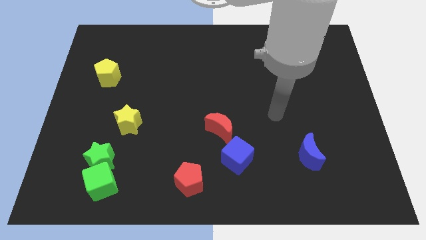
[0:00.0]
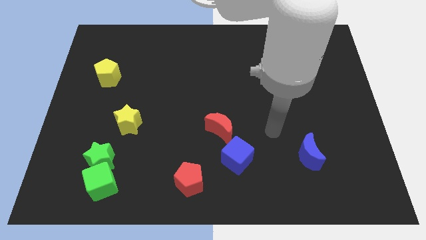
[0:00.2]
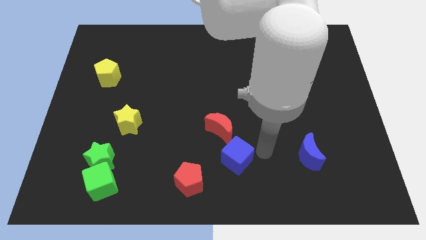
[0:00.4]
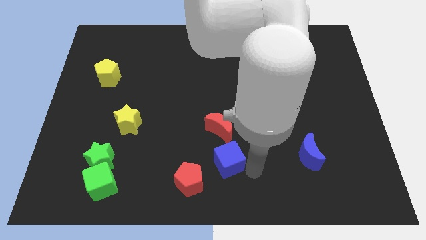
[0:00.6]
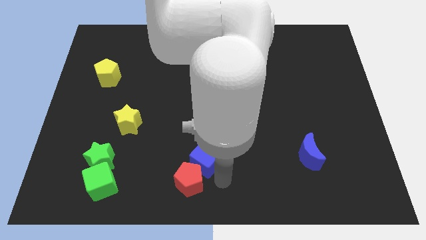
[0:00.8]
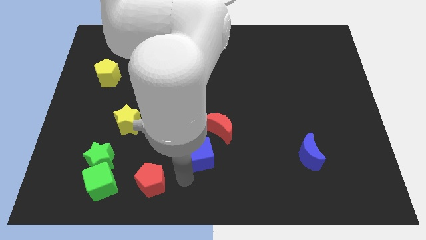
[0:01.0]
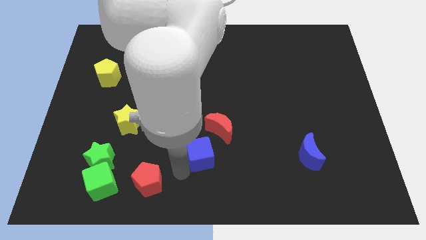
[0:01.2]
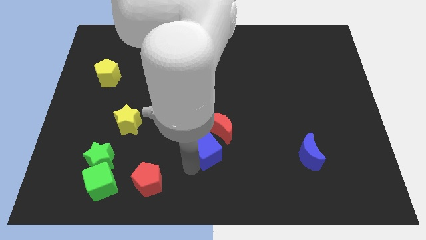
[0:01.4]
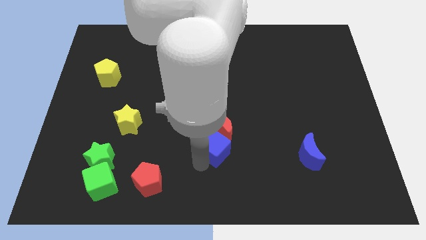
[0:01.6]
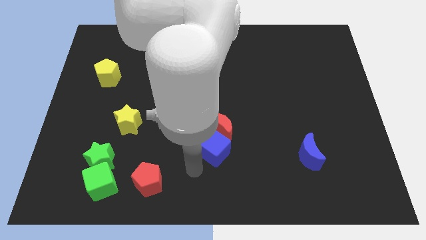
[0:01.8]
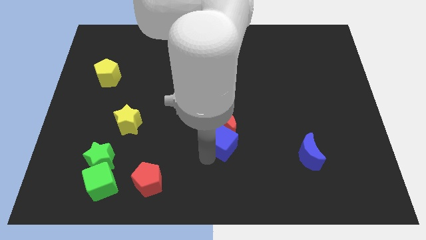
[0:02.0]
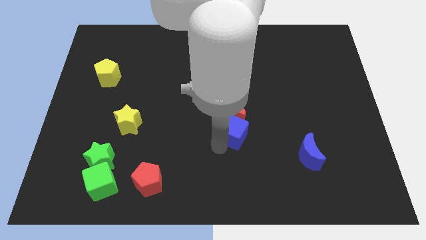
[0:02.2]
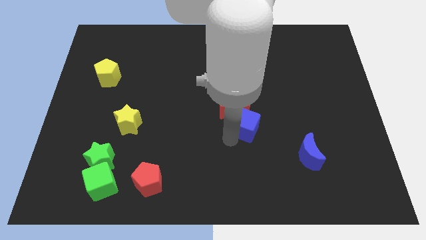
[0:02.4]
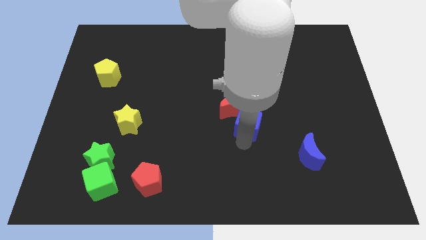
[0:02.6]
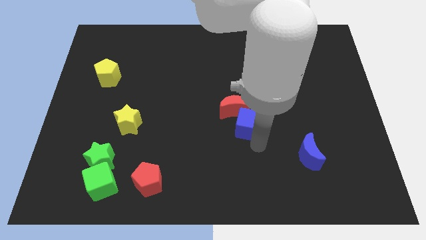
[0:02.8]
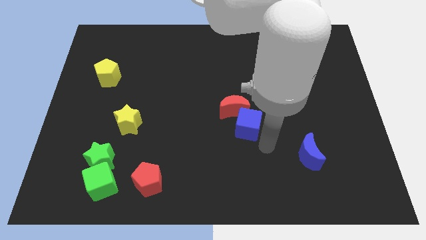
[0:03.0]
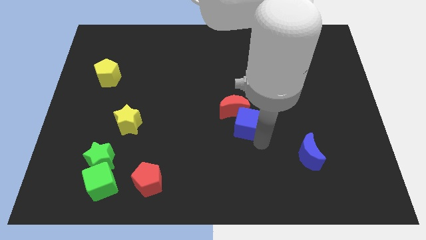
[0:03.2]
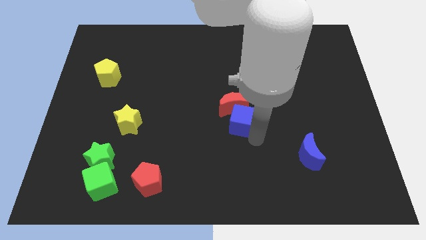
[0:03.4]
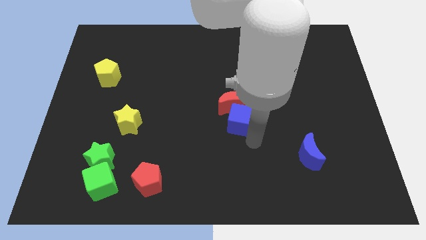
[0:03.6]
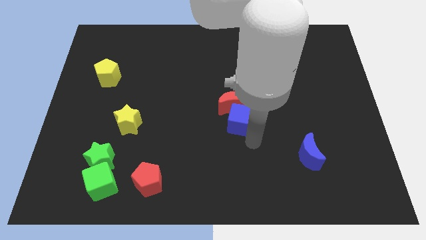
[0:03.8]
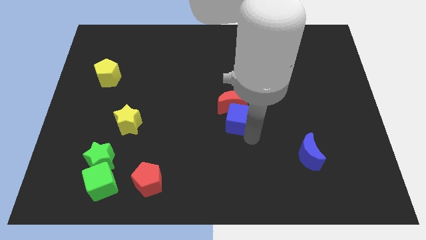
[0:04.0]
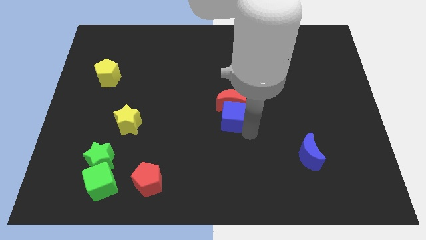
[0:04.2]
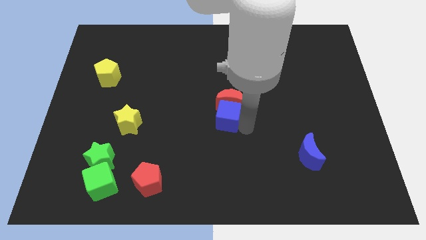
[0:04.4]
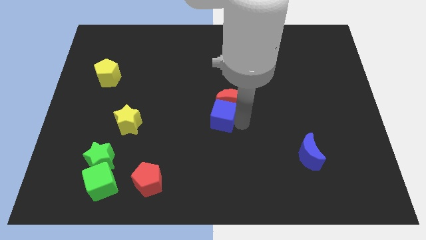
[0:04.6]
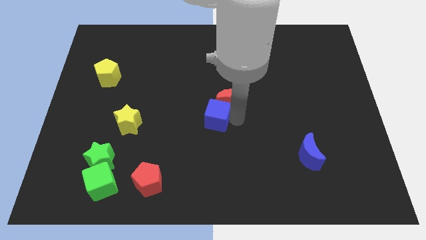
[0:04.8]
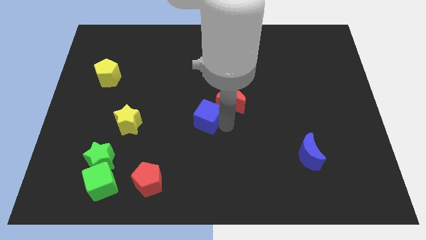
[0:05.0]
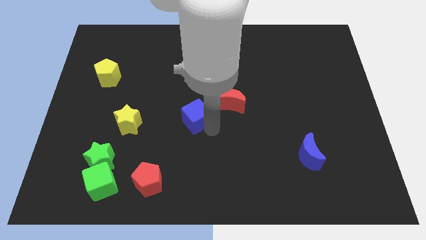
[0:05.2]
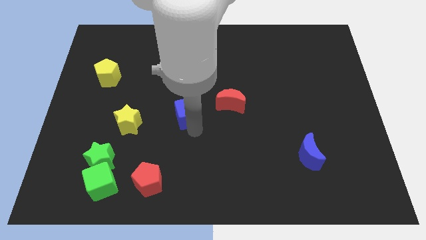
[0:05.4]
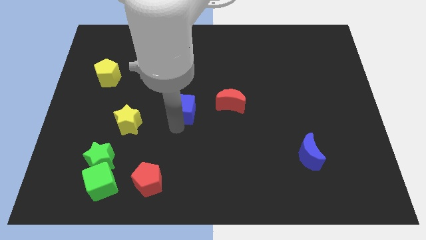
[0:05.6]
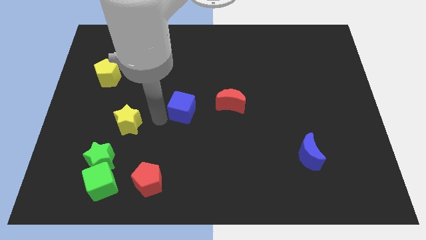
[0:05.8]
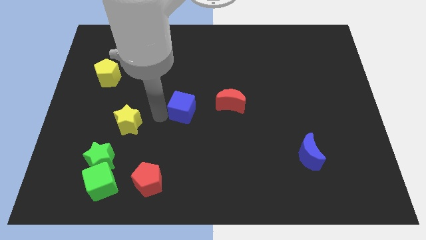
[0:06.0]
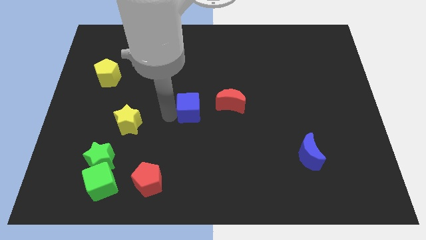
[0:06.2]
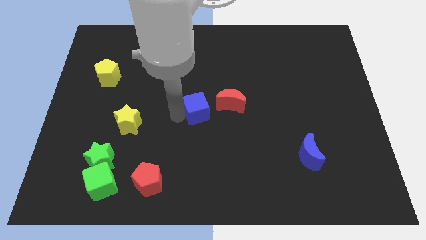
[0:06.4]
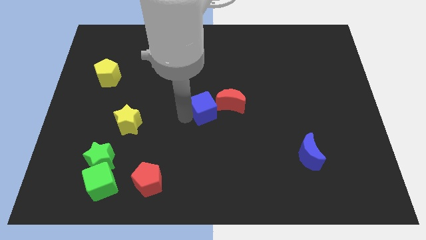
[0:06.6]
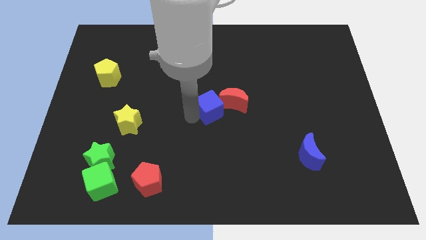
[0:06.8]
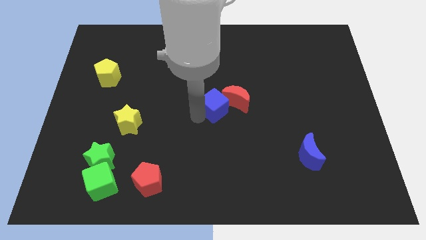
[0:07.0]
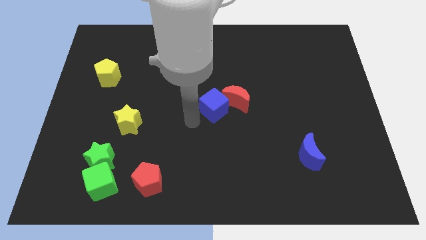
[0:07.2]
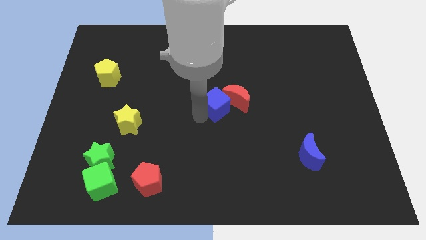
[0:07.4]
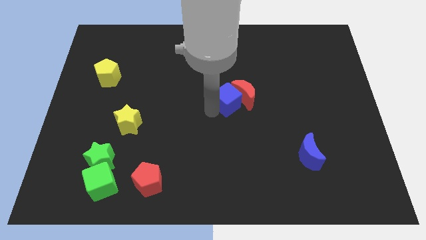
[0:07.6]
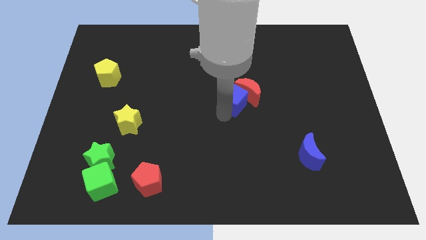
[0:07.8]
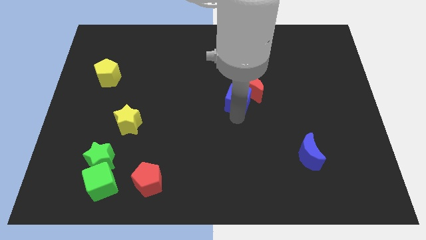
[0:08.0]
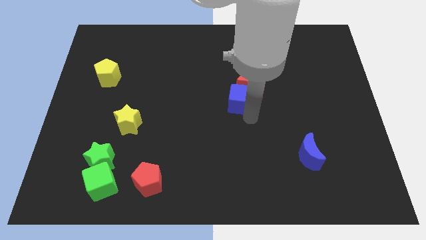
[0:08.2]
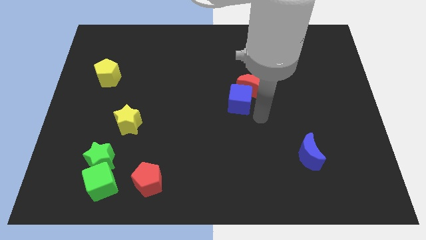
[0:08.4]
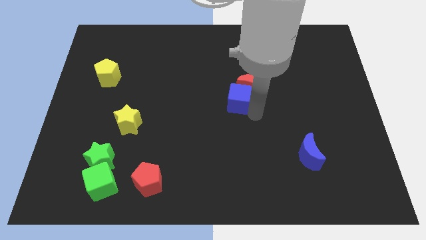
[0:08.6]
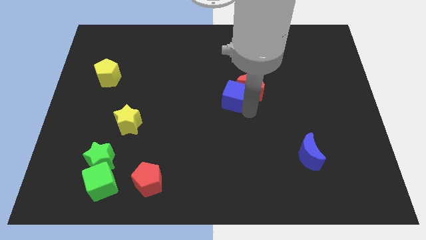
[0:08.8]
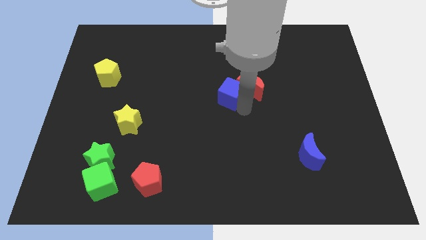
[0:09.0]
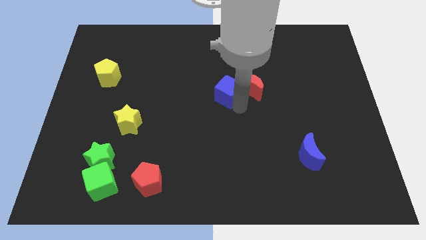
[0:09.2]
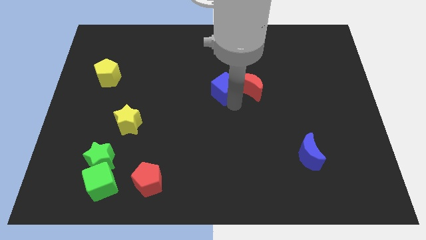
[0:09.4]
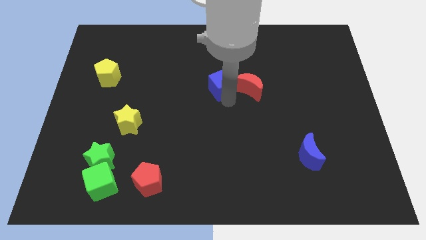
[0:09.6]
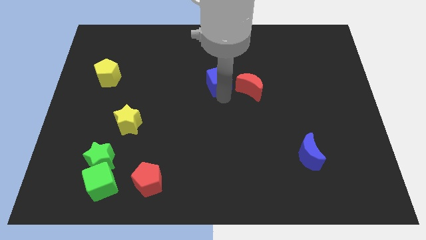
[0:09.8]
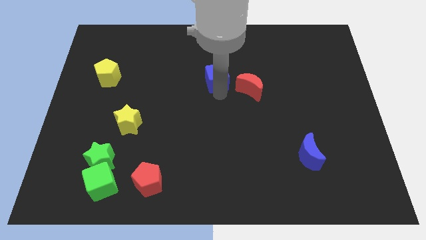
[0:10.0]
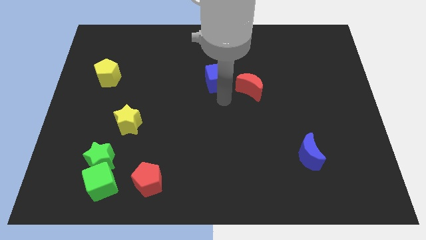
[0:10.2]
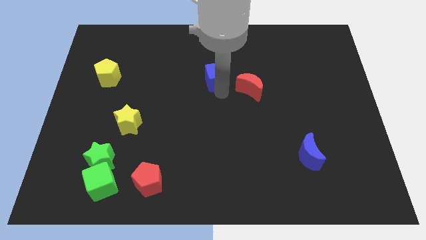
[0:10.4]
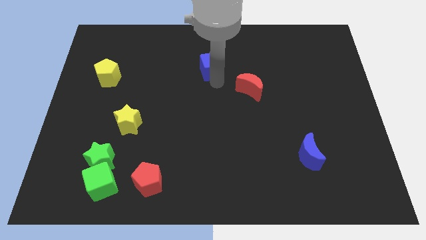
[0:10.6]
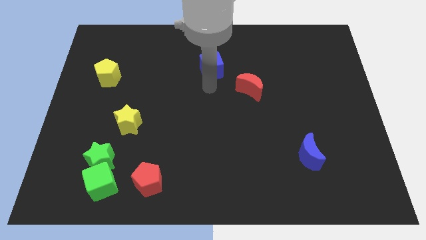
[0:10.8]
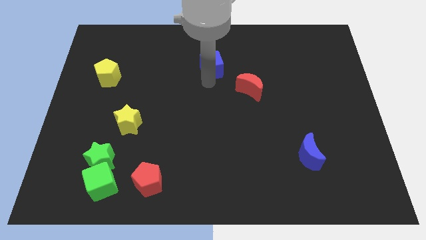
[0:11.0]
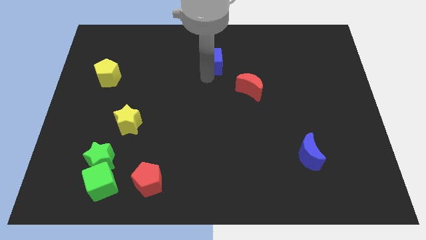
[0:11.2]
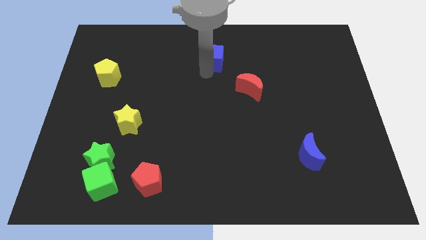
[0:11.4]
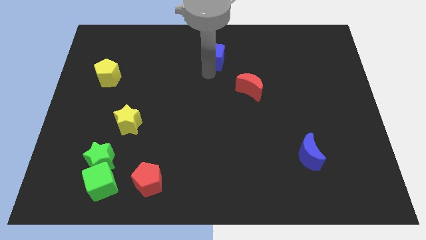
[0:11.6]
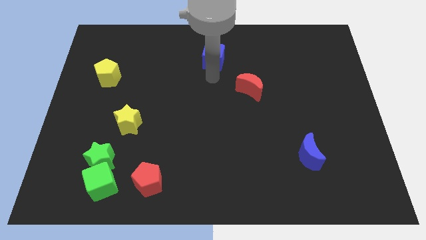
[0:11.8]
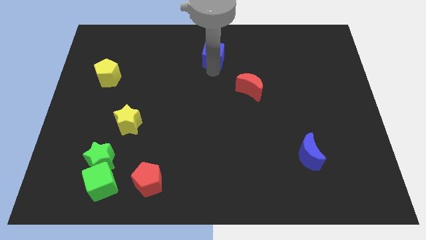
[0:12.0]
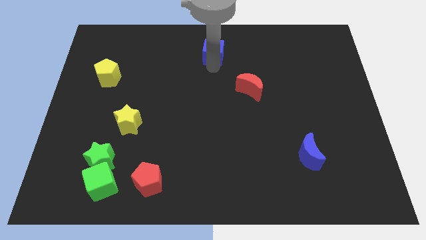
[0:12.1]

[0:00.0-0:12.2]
slide the blue cube to the top side

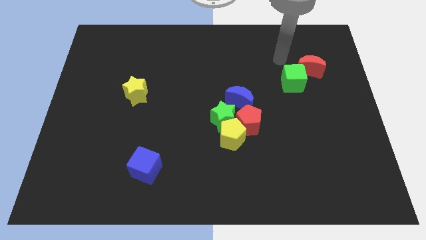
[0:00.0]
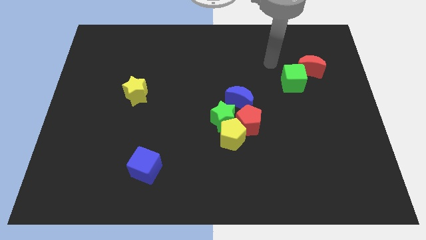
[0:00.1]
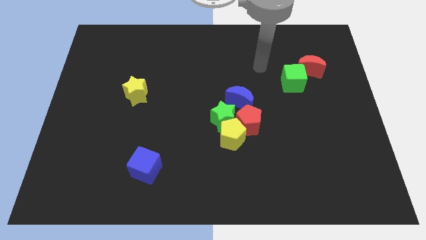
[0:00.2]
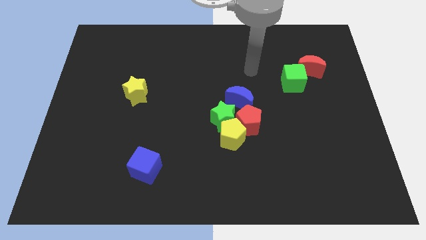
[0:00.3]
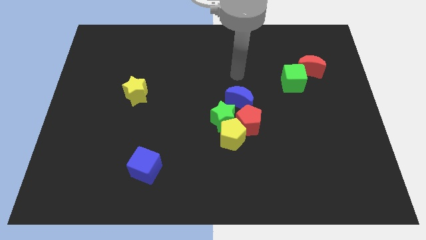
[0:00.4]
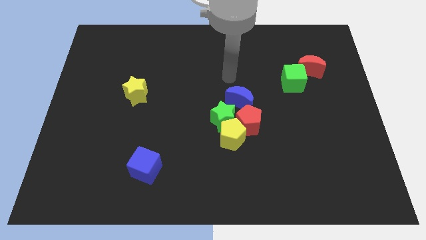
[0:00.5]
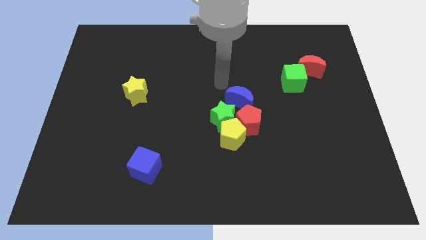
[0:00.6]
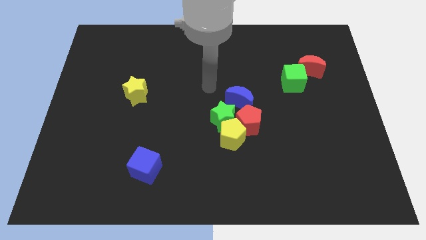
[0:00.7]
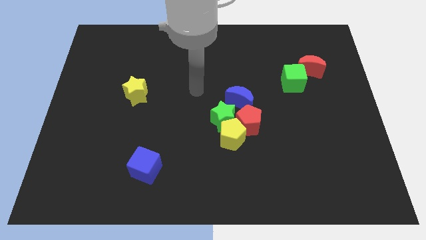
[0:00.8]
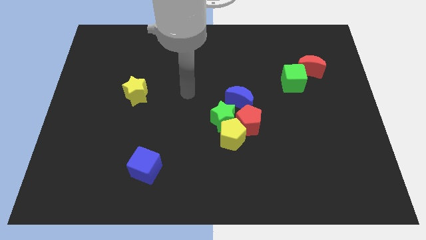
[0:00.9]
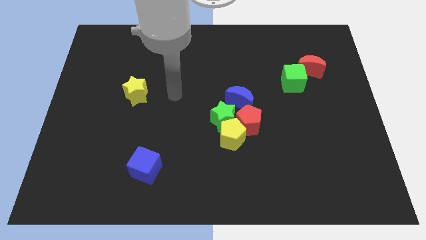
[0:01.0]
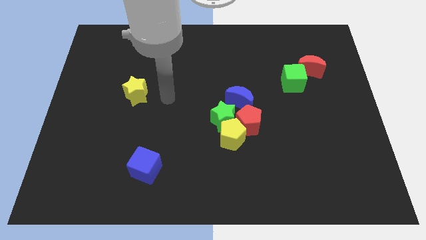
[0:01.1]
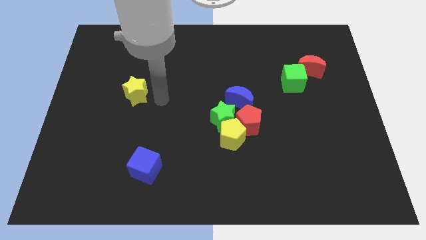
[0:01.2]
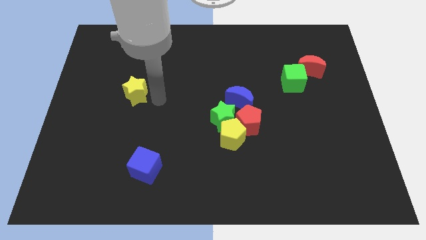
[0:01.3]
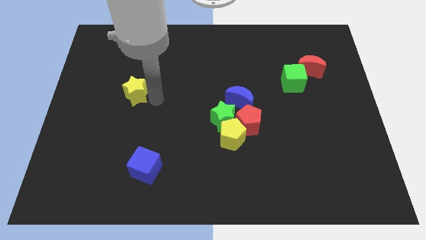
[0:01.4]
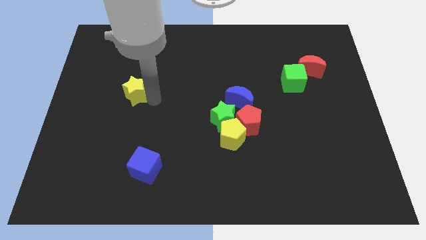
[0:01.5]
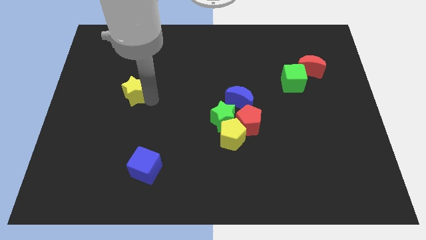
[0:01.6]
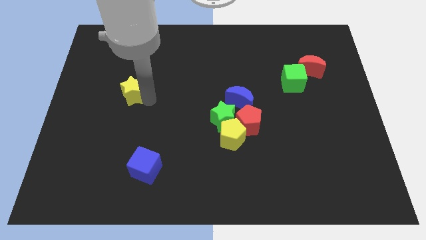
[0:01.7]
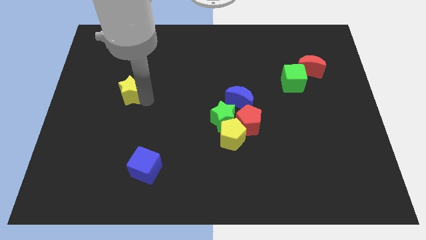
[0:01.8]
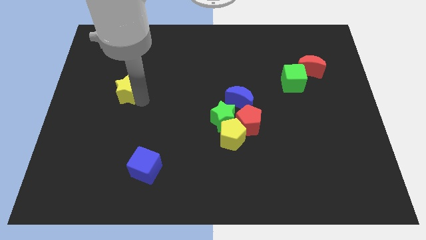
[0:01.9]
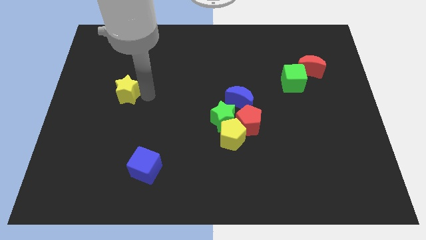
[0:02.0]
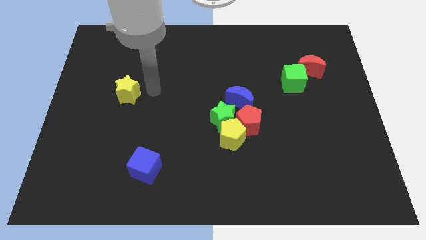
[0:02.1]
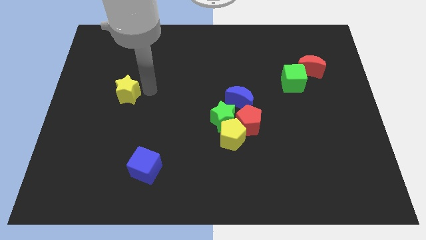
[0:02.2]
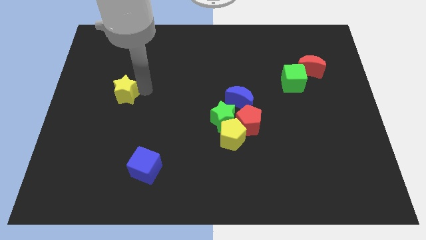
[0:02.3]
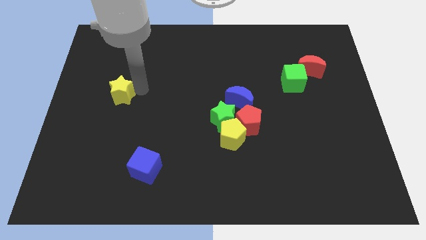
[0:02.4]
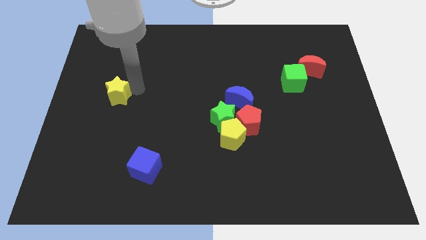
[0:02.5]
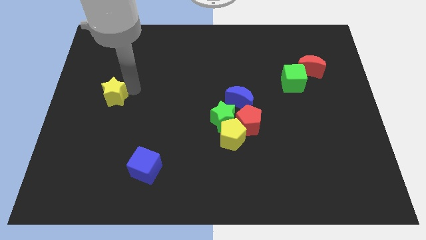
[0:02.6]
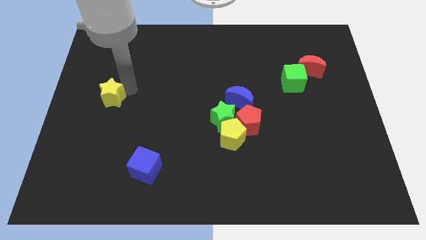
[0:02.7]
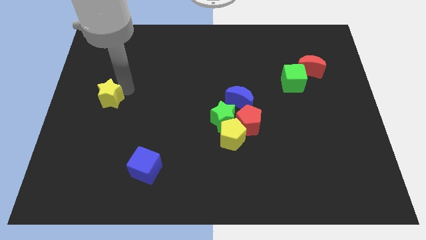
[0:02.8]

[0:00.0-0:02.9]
move the yellow star to the left side of the board
